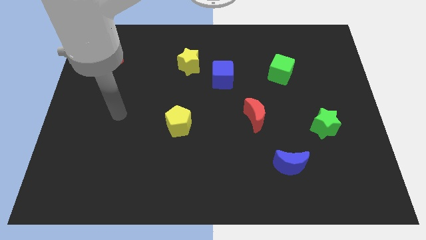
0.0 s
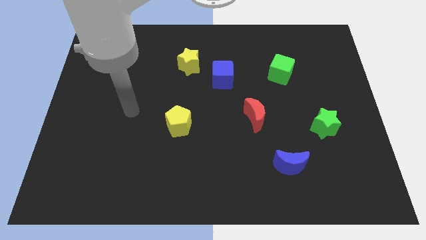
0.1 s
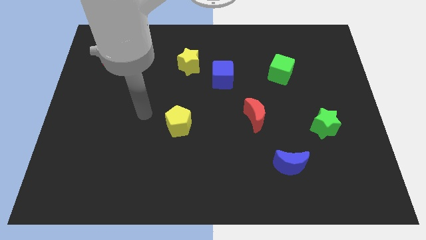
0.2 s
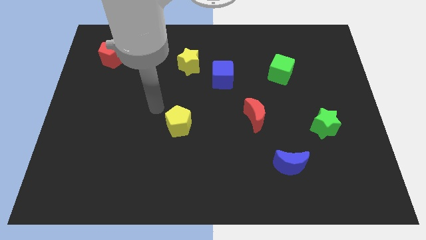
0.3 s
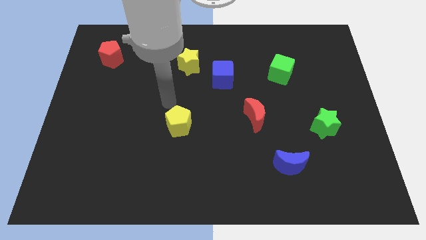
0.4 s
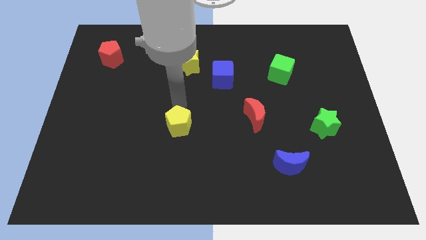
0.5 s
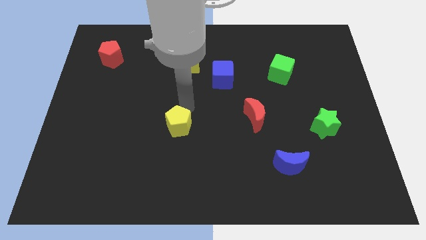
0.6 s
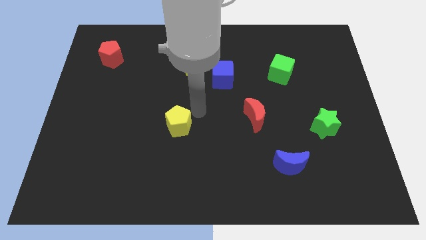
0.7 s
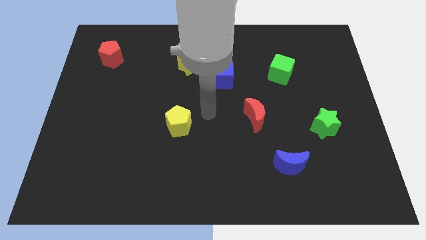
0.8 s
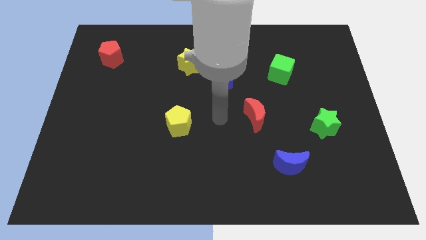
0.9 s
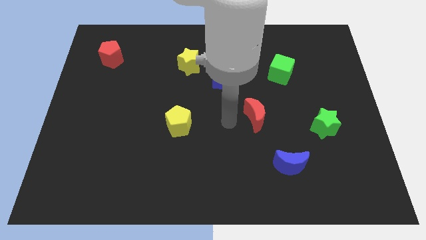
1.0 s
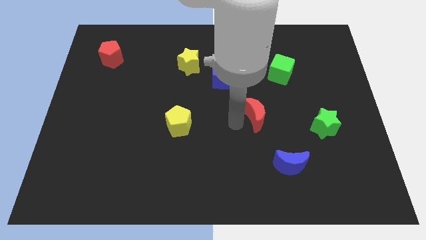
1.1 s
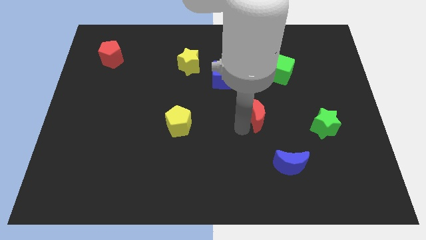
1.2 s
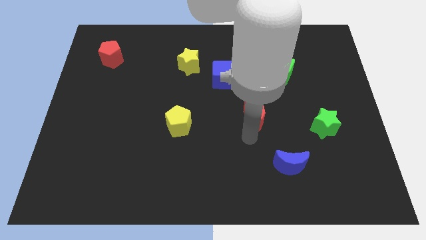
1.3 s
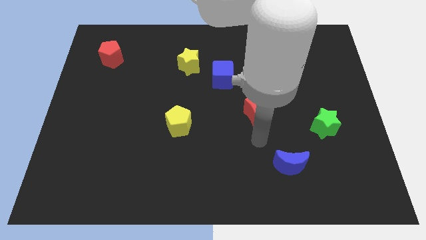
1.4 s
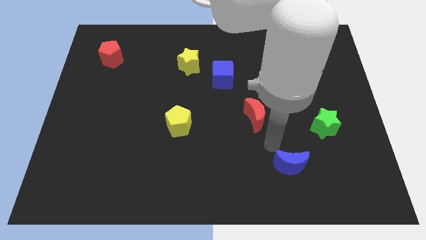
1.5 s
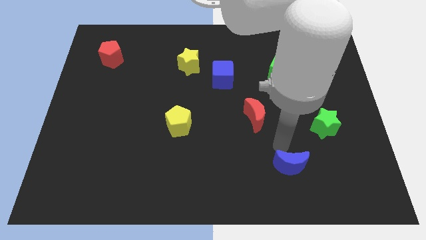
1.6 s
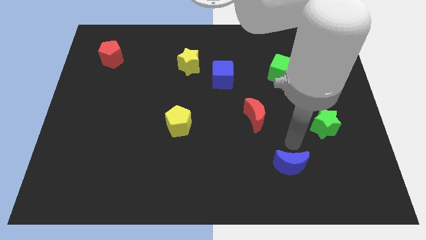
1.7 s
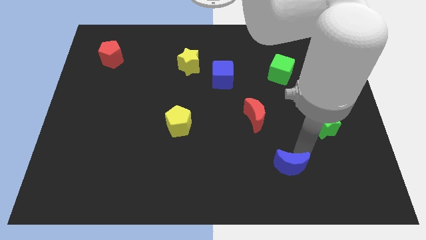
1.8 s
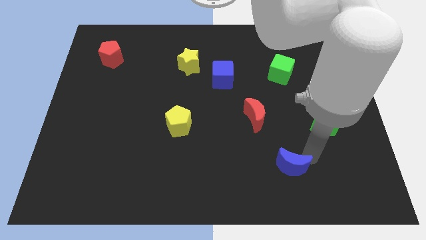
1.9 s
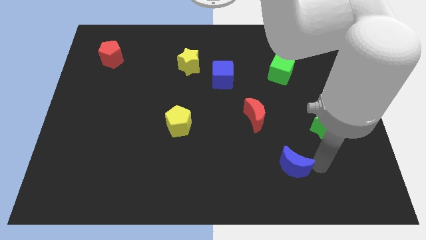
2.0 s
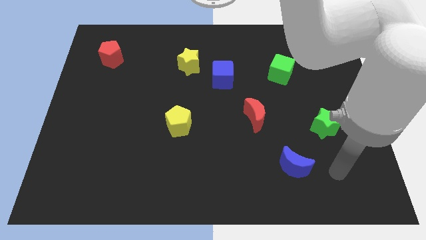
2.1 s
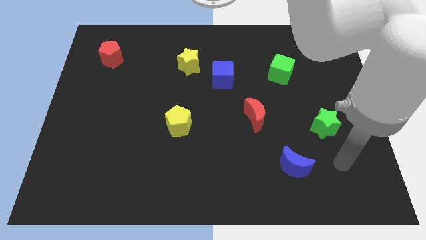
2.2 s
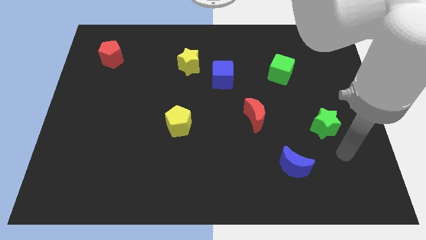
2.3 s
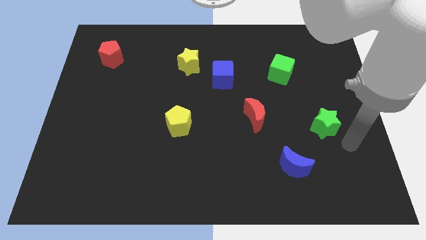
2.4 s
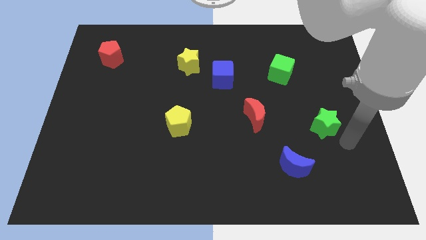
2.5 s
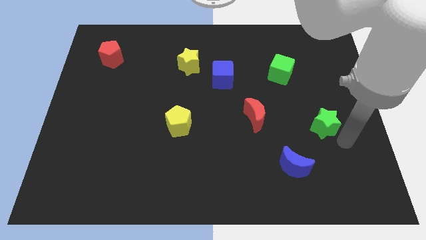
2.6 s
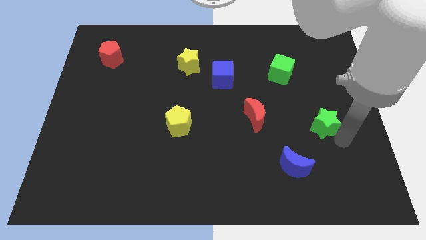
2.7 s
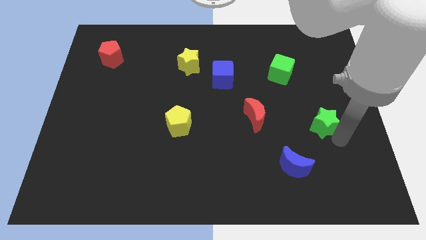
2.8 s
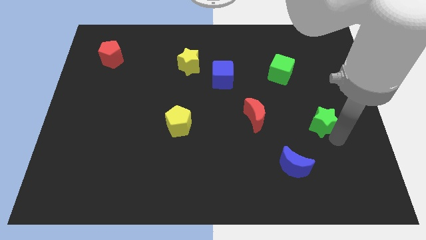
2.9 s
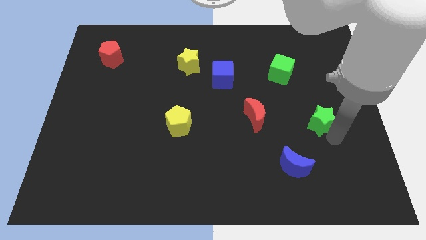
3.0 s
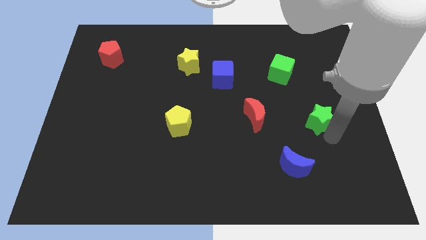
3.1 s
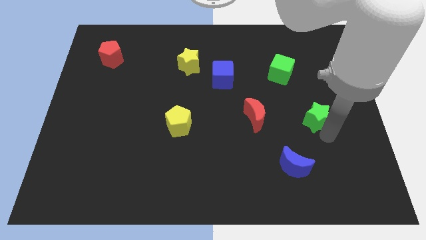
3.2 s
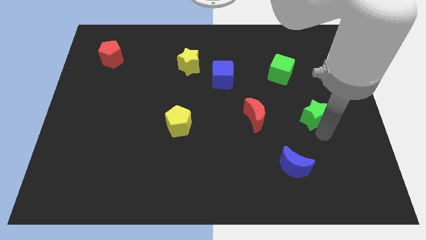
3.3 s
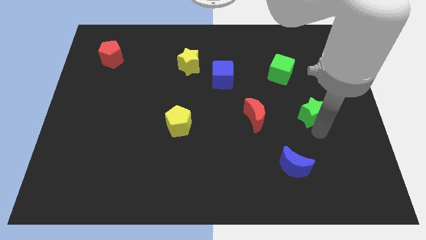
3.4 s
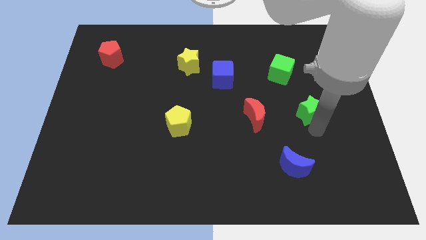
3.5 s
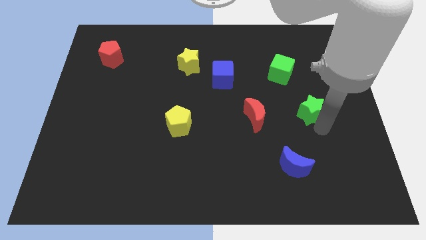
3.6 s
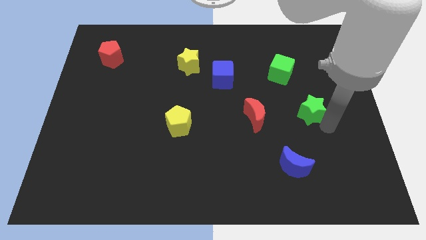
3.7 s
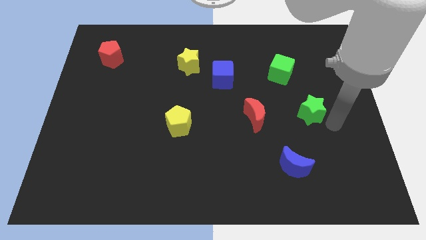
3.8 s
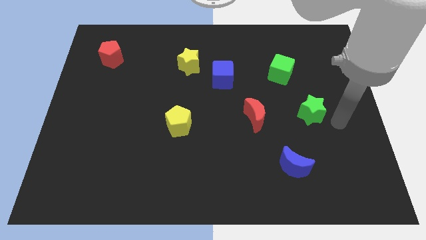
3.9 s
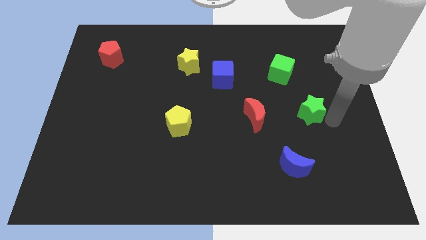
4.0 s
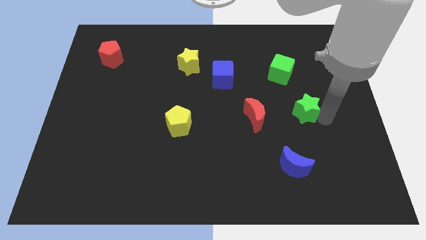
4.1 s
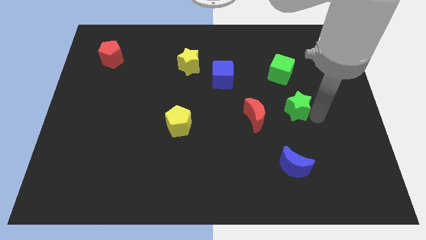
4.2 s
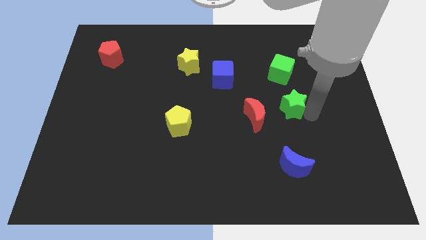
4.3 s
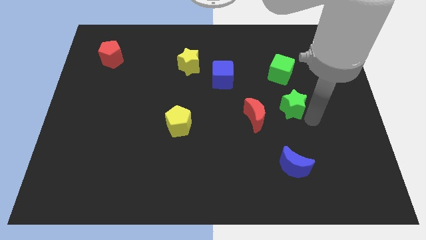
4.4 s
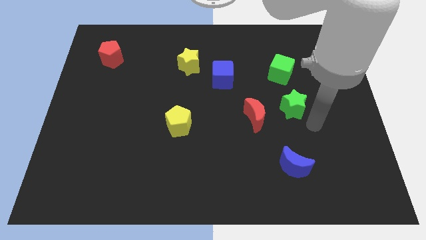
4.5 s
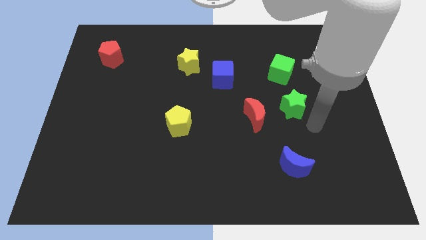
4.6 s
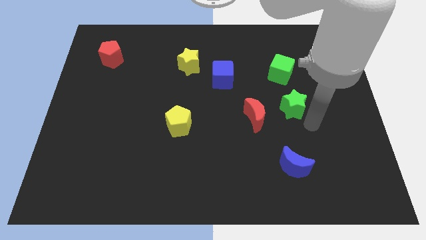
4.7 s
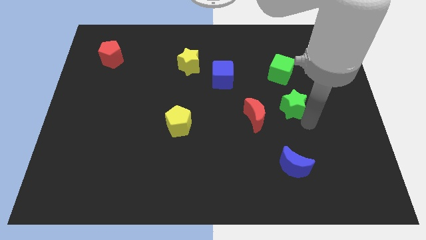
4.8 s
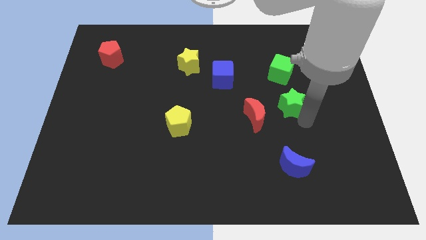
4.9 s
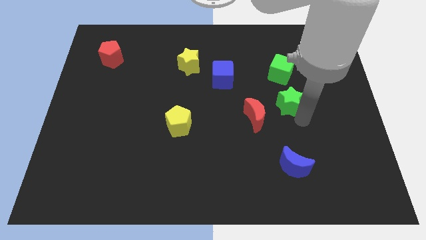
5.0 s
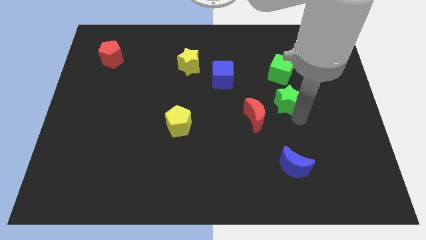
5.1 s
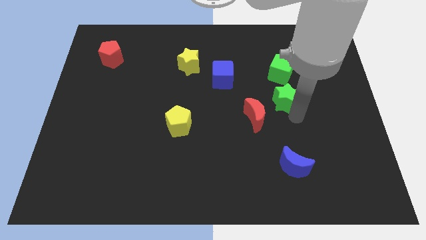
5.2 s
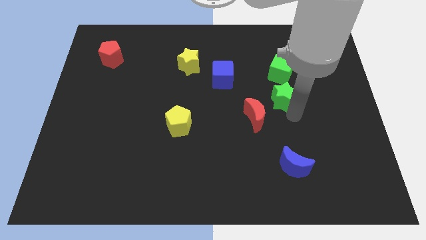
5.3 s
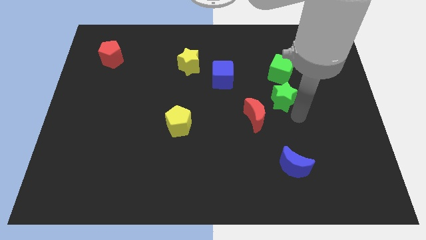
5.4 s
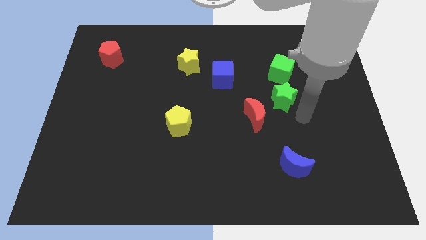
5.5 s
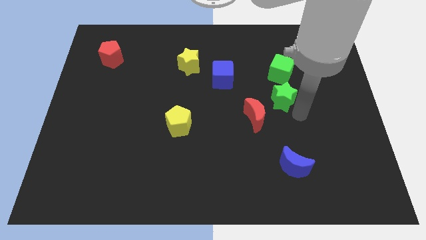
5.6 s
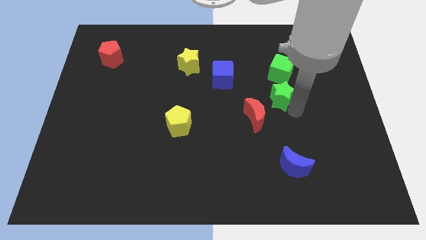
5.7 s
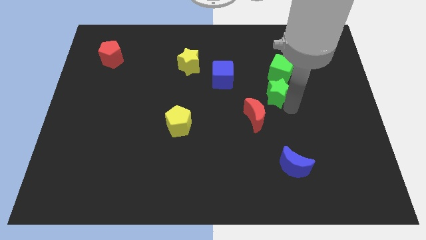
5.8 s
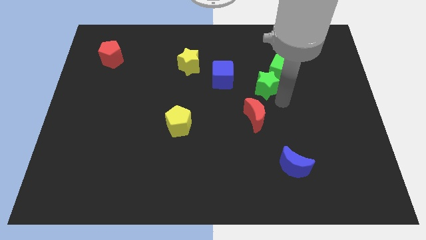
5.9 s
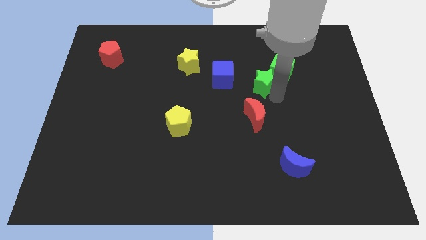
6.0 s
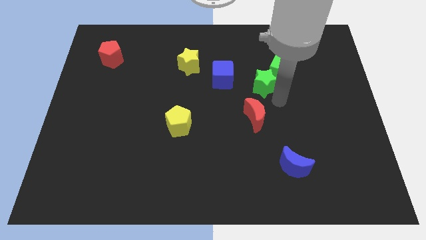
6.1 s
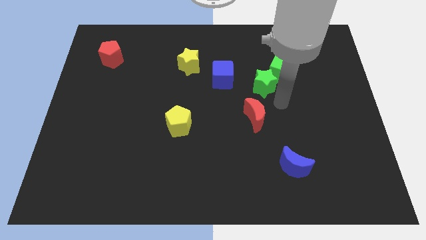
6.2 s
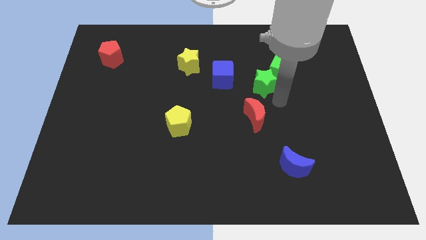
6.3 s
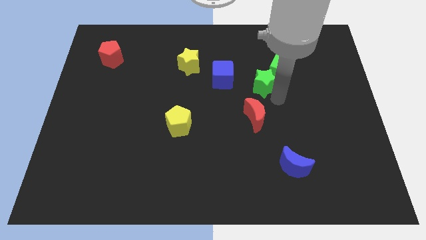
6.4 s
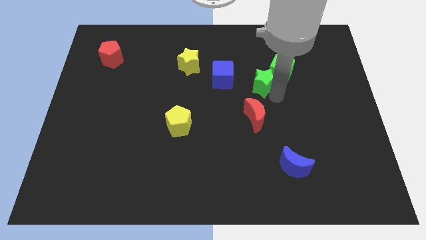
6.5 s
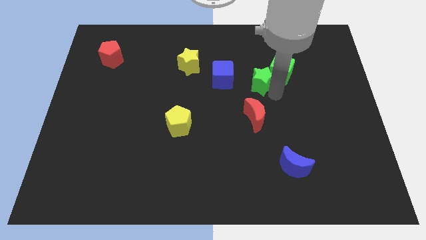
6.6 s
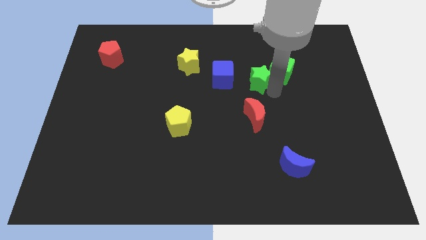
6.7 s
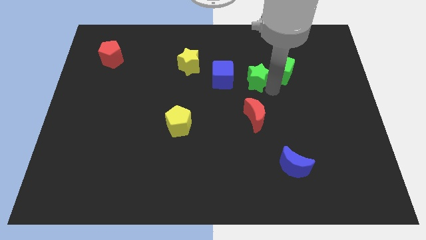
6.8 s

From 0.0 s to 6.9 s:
move the green star upwards and then to the left

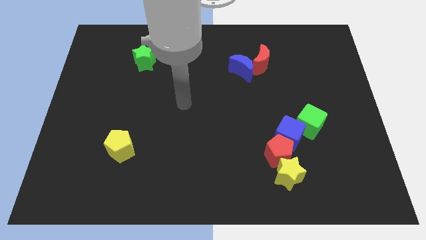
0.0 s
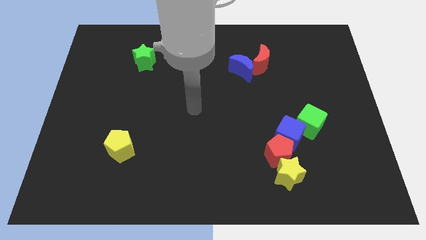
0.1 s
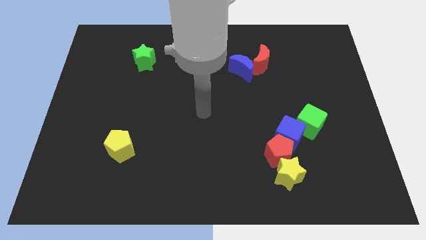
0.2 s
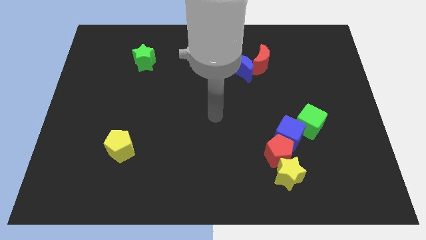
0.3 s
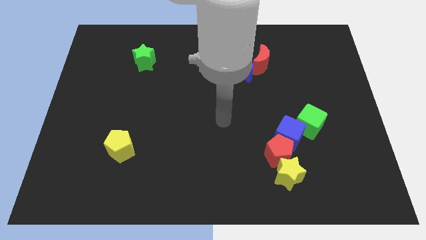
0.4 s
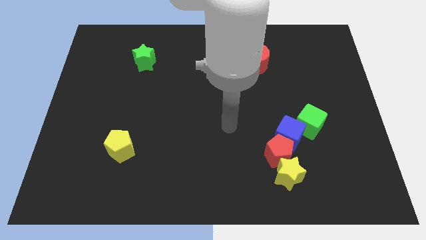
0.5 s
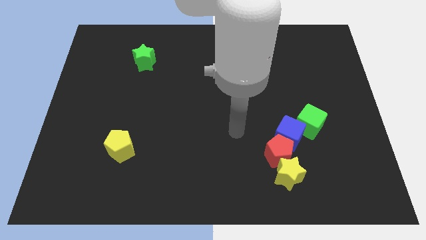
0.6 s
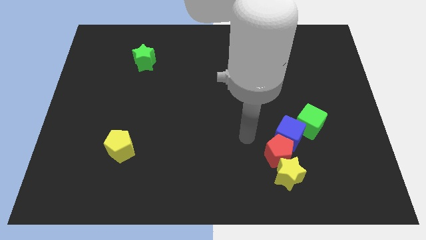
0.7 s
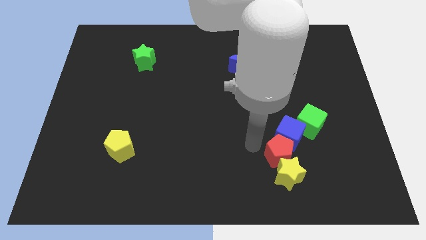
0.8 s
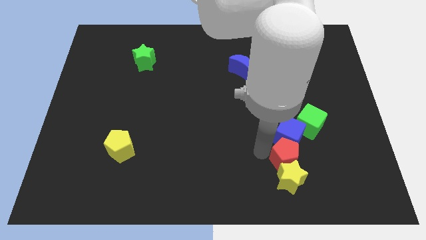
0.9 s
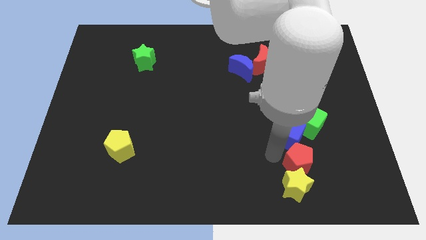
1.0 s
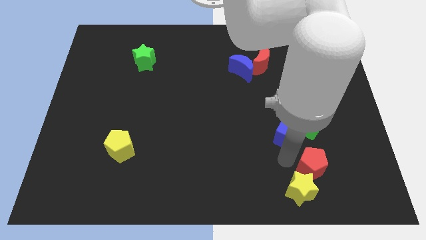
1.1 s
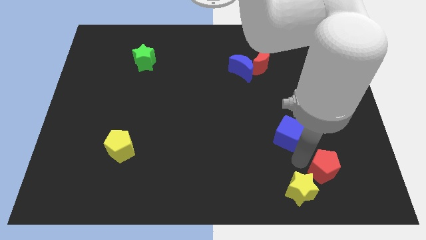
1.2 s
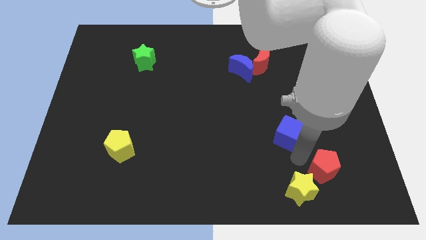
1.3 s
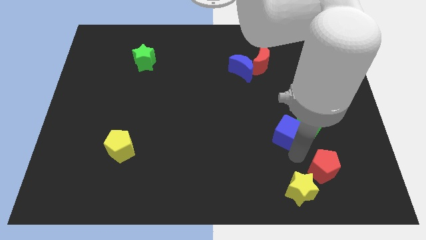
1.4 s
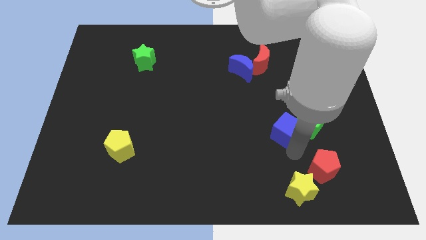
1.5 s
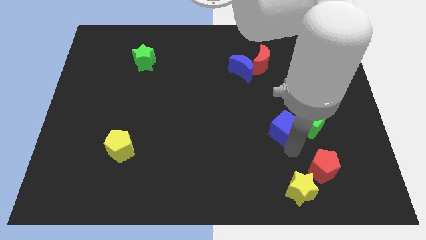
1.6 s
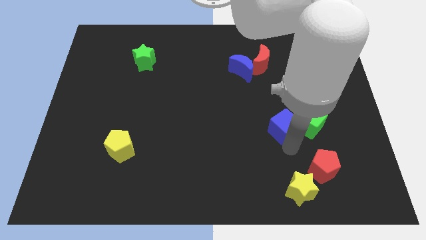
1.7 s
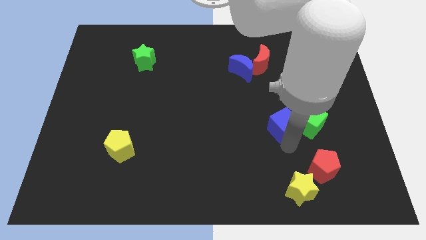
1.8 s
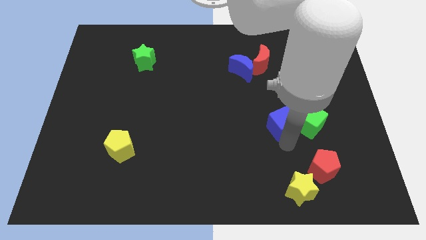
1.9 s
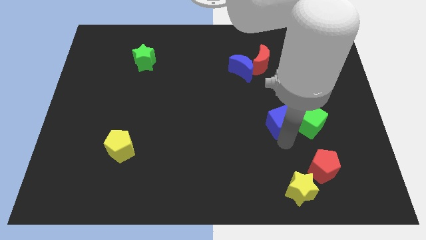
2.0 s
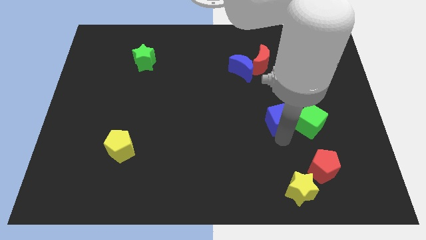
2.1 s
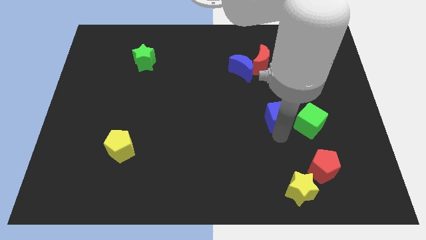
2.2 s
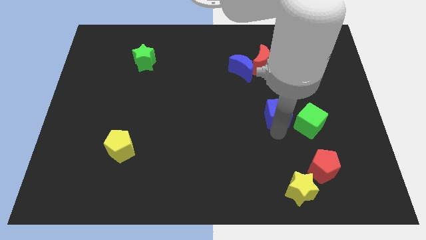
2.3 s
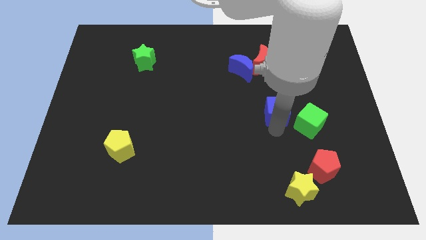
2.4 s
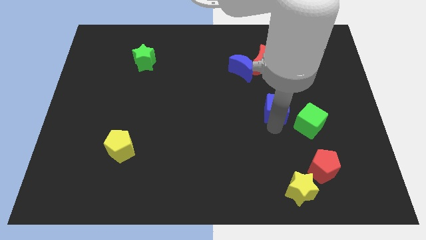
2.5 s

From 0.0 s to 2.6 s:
slide the blue cube a little bit up
